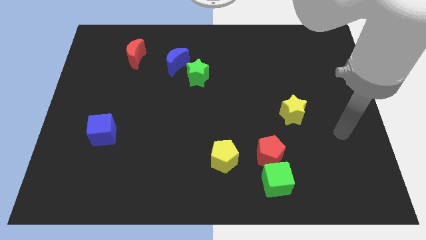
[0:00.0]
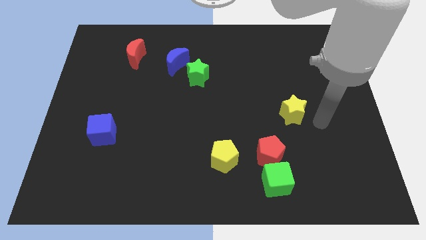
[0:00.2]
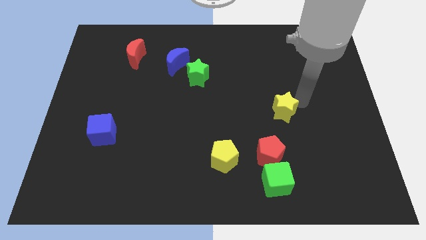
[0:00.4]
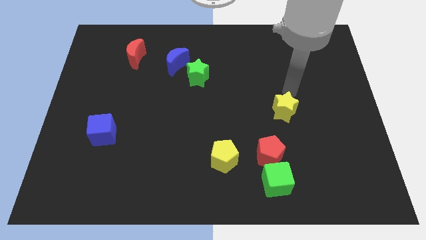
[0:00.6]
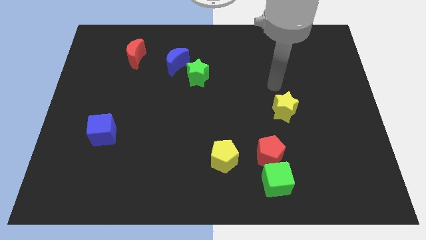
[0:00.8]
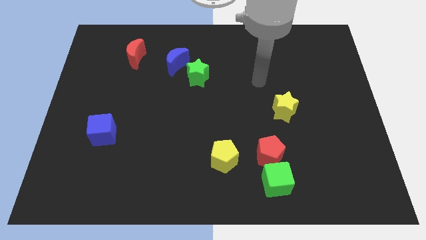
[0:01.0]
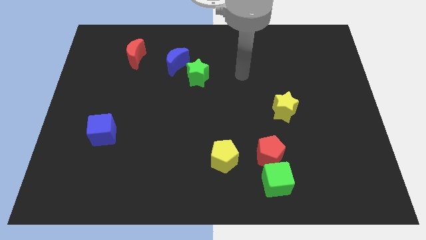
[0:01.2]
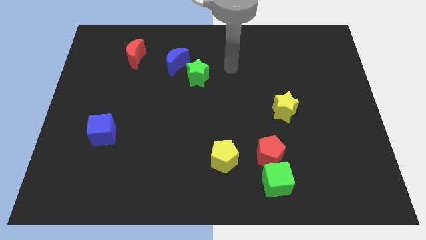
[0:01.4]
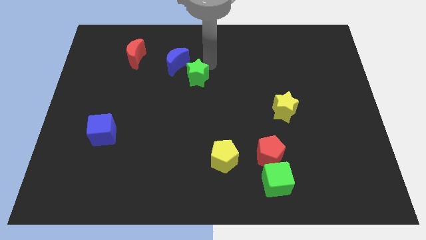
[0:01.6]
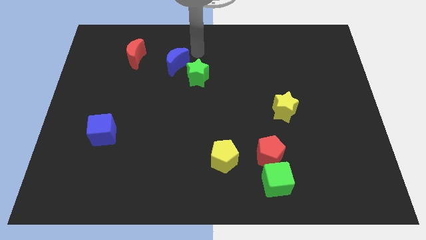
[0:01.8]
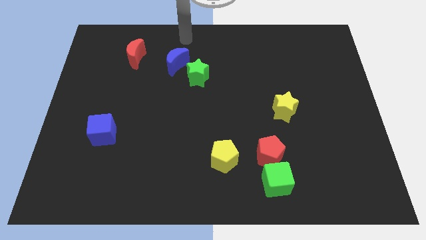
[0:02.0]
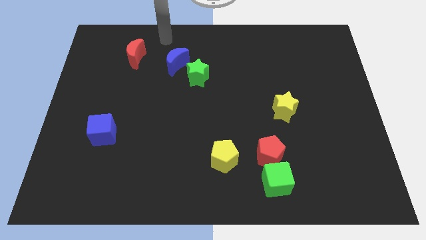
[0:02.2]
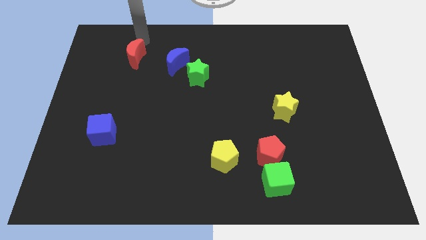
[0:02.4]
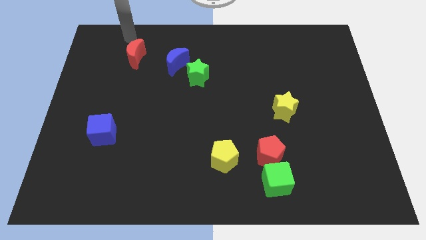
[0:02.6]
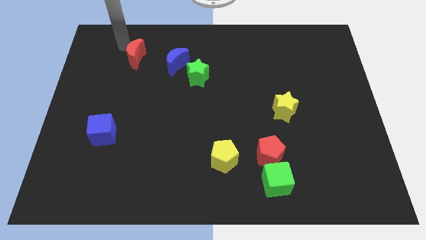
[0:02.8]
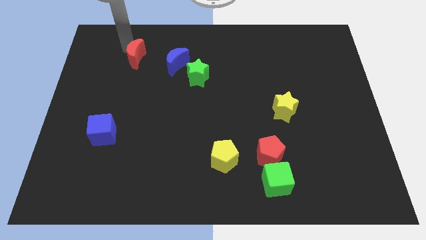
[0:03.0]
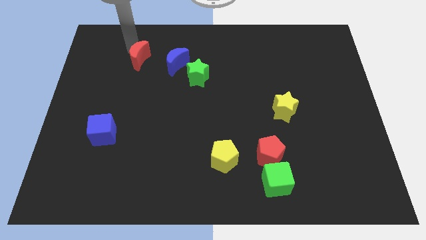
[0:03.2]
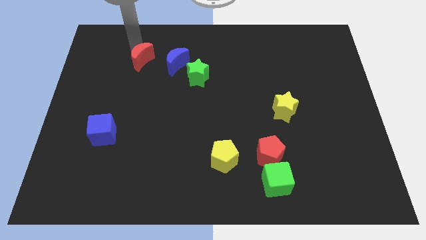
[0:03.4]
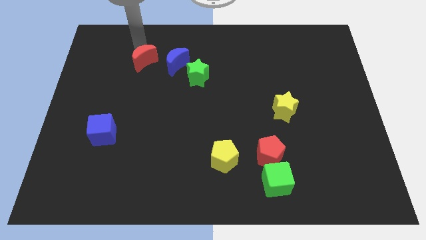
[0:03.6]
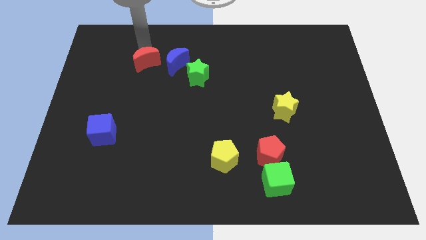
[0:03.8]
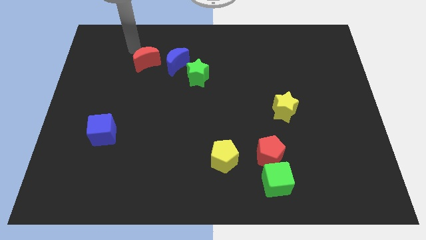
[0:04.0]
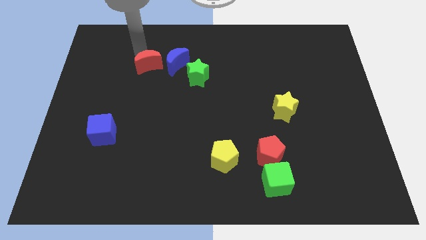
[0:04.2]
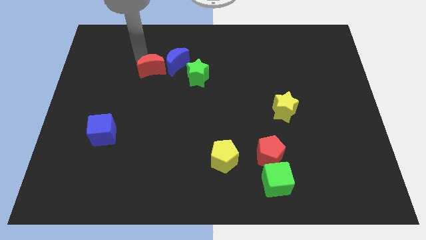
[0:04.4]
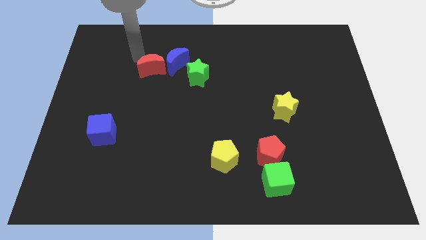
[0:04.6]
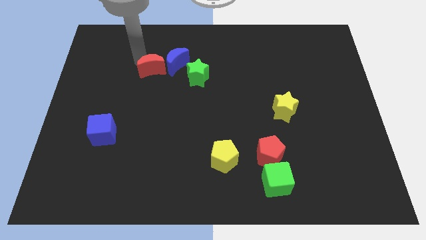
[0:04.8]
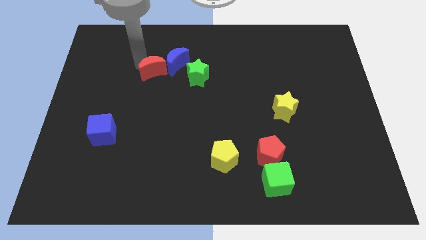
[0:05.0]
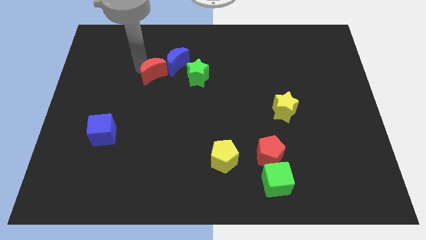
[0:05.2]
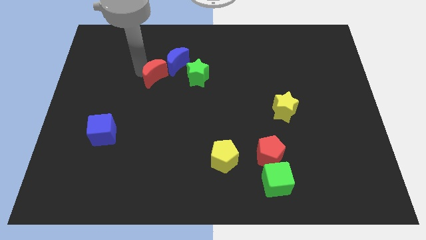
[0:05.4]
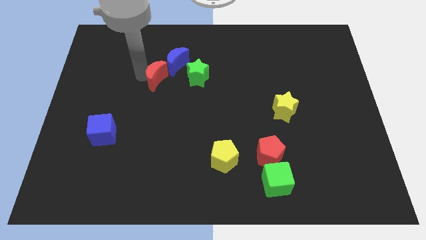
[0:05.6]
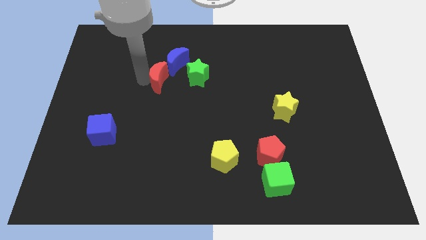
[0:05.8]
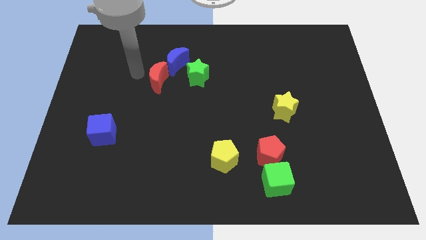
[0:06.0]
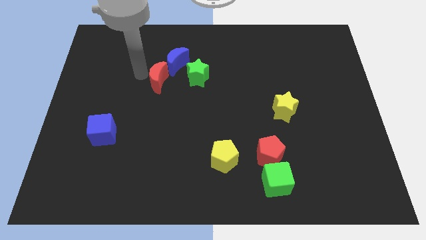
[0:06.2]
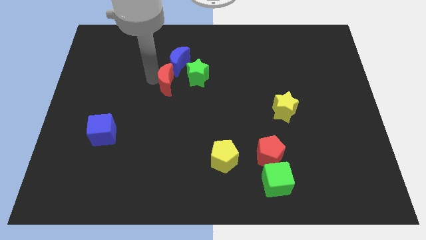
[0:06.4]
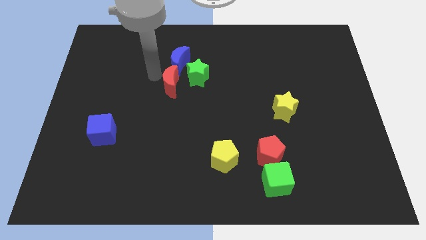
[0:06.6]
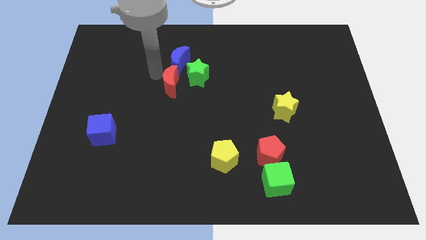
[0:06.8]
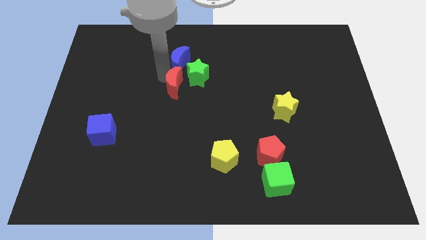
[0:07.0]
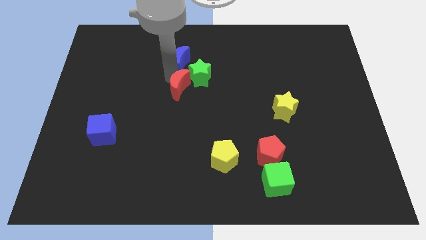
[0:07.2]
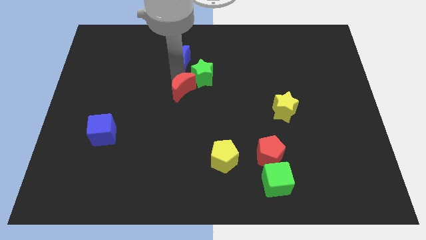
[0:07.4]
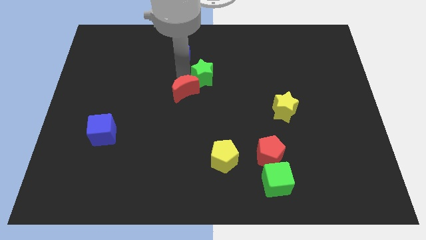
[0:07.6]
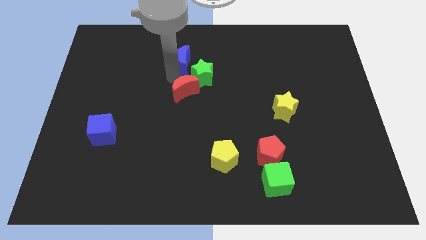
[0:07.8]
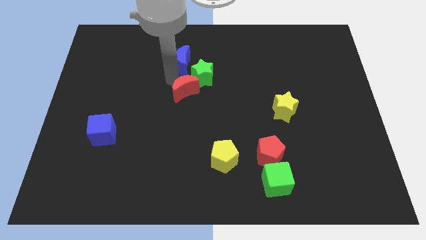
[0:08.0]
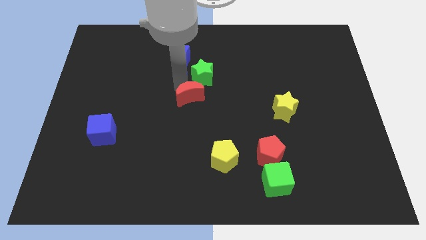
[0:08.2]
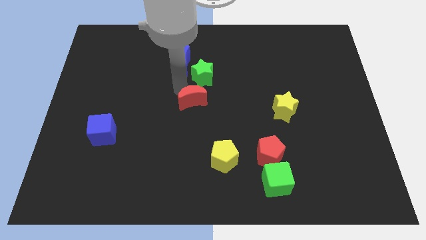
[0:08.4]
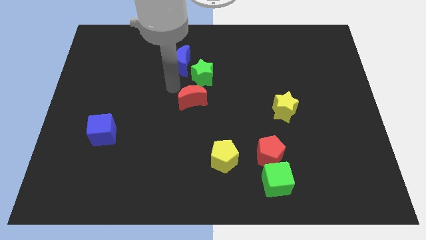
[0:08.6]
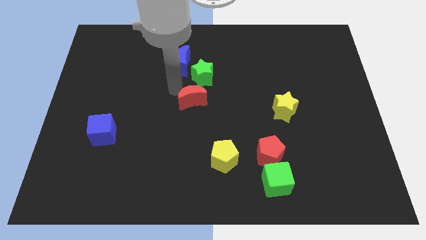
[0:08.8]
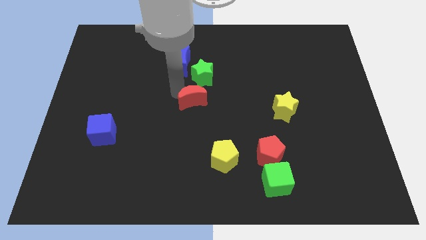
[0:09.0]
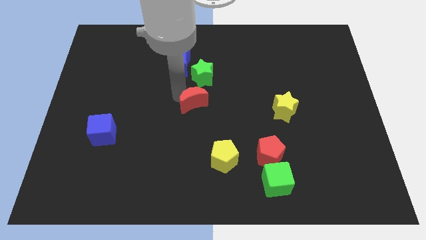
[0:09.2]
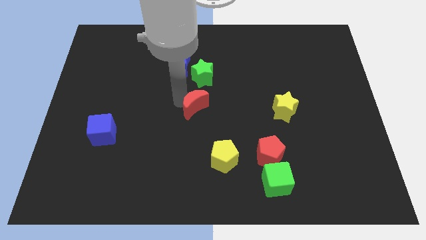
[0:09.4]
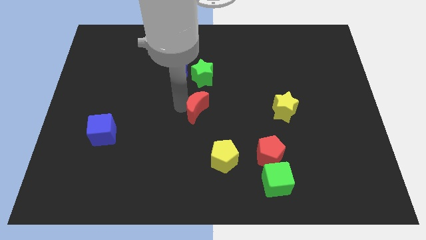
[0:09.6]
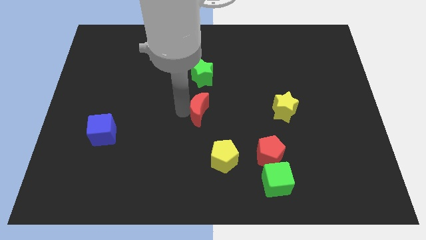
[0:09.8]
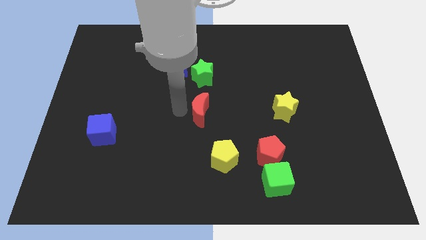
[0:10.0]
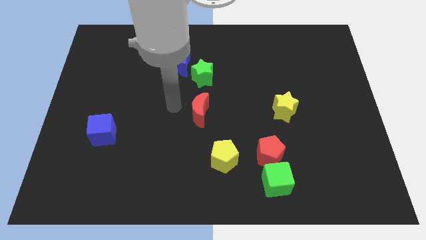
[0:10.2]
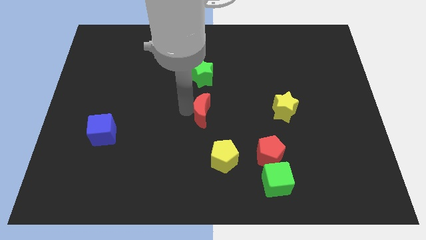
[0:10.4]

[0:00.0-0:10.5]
move the red moon above the yellow pentagon

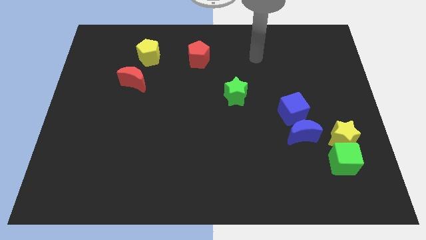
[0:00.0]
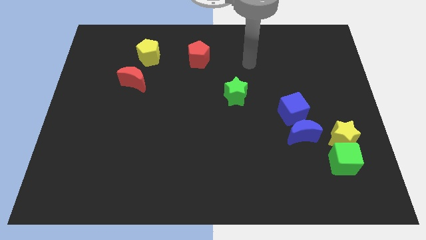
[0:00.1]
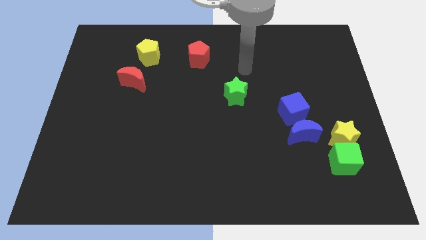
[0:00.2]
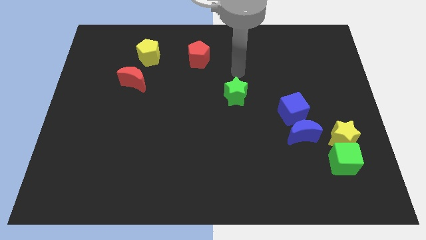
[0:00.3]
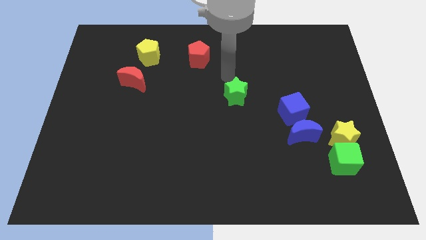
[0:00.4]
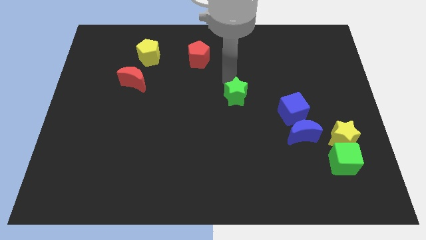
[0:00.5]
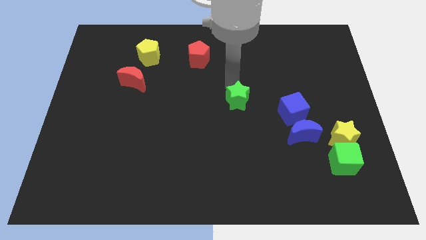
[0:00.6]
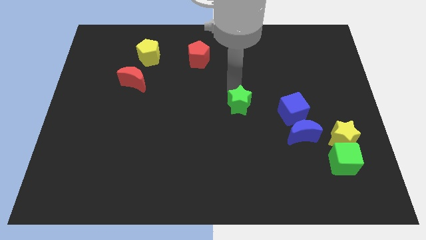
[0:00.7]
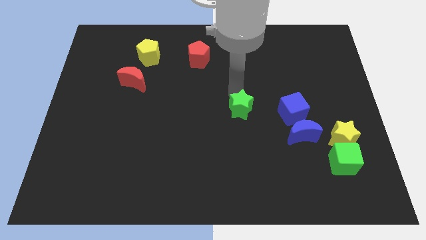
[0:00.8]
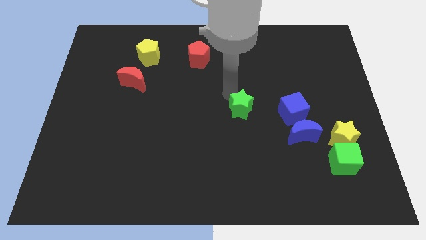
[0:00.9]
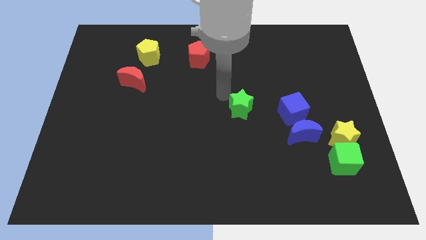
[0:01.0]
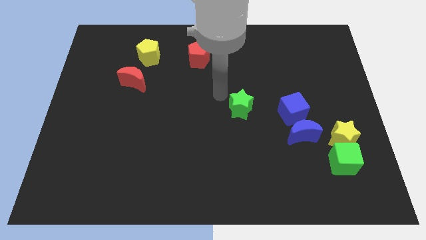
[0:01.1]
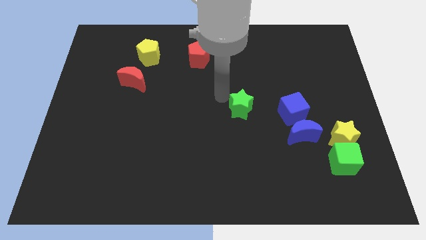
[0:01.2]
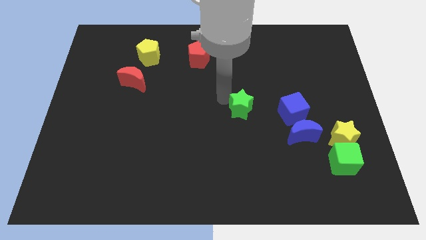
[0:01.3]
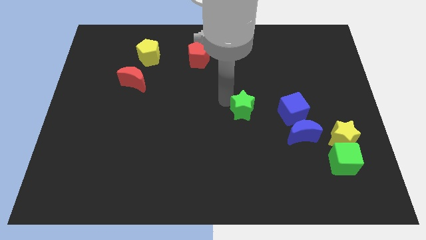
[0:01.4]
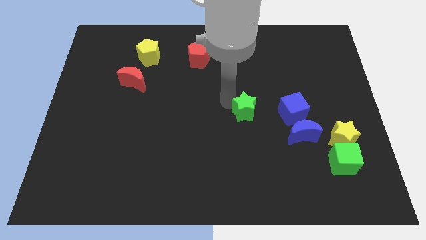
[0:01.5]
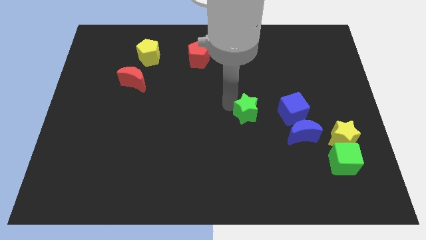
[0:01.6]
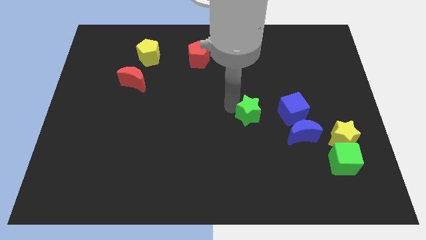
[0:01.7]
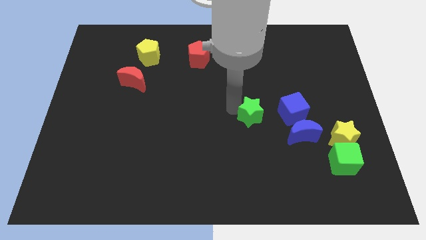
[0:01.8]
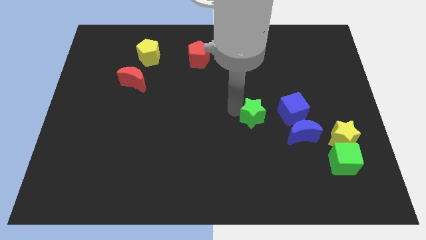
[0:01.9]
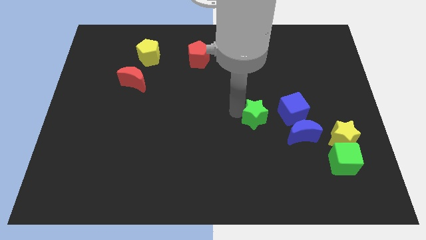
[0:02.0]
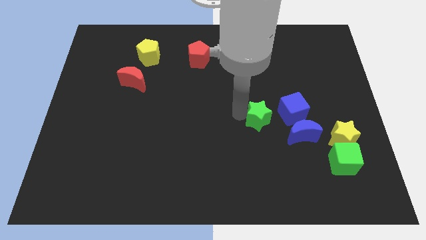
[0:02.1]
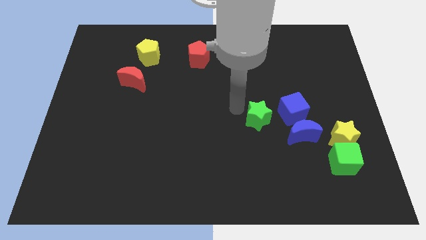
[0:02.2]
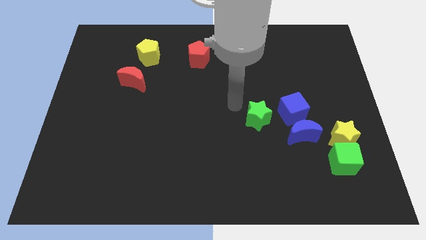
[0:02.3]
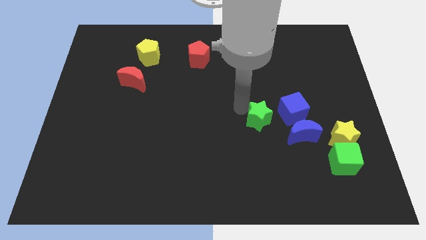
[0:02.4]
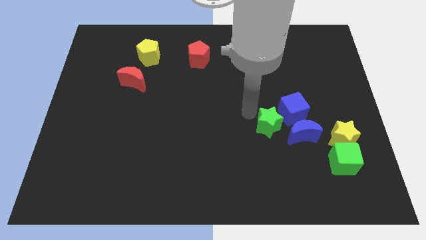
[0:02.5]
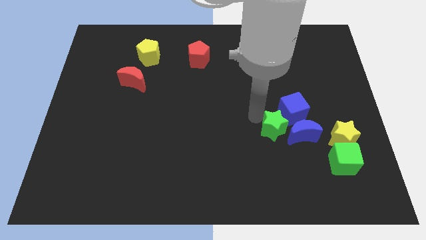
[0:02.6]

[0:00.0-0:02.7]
put the green star to the left side of the yellow star
